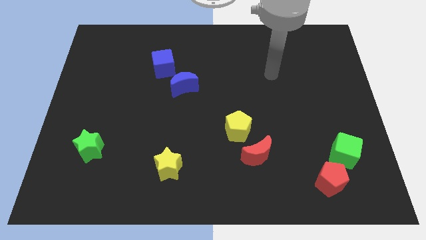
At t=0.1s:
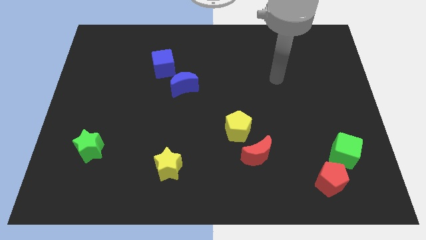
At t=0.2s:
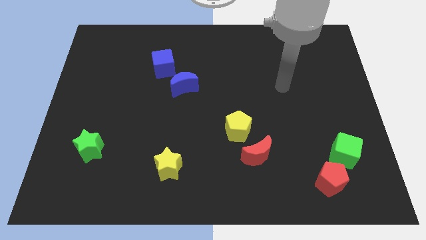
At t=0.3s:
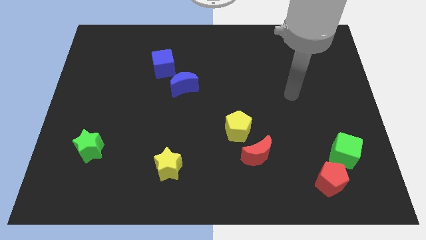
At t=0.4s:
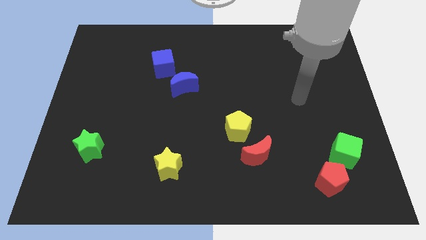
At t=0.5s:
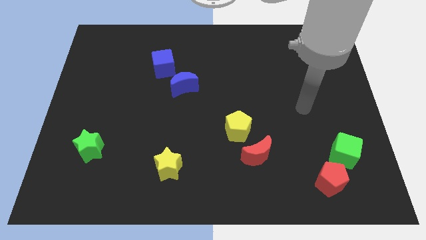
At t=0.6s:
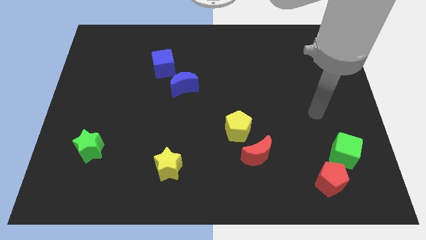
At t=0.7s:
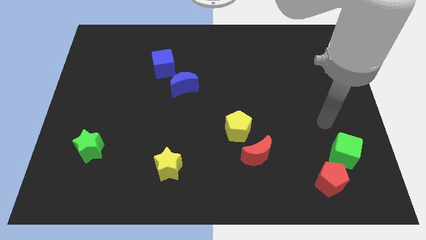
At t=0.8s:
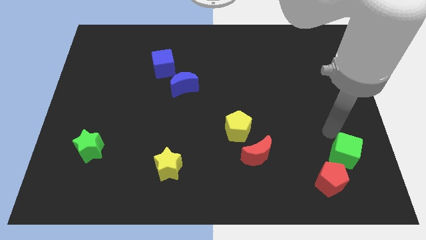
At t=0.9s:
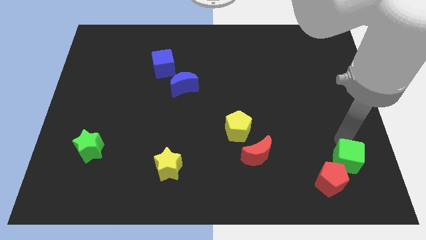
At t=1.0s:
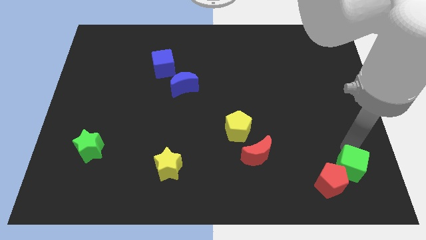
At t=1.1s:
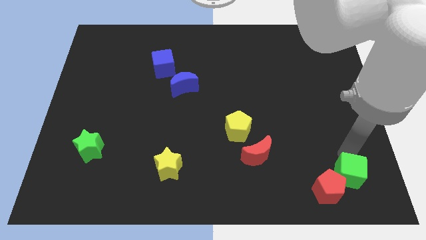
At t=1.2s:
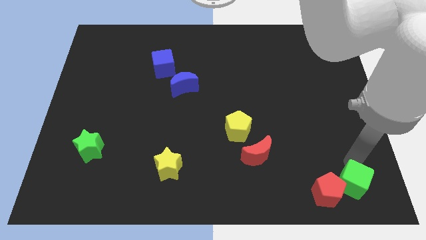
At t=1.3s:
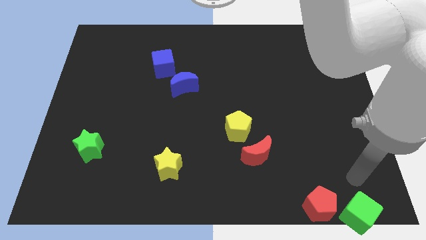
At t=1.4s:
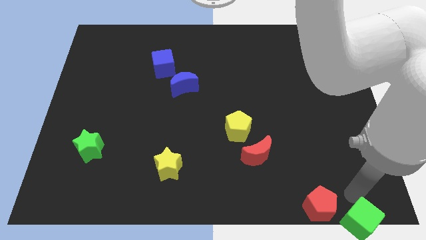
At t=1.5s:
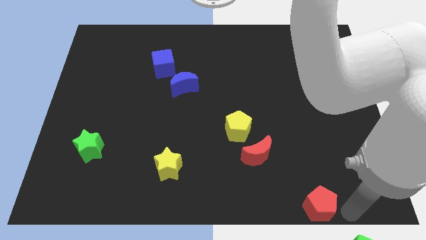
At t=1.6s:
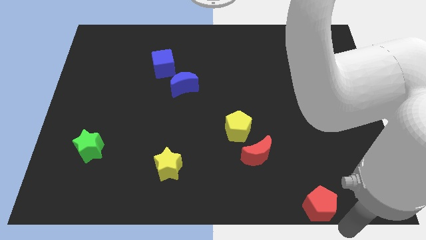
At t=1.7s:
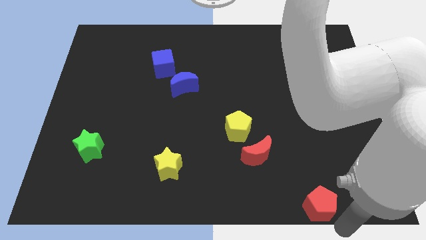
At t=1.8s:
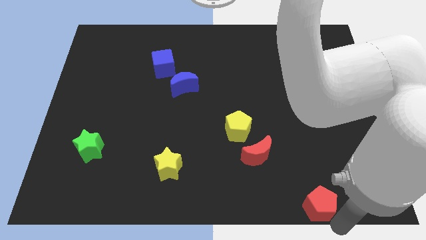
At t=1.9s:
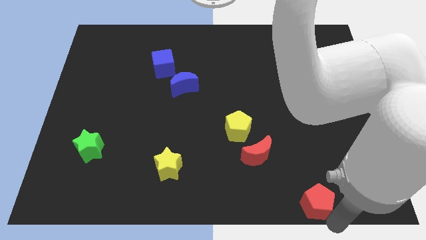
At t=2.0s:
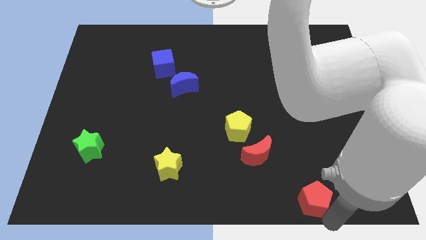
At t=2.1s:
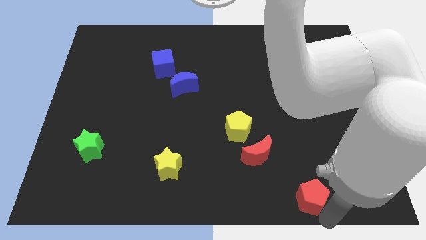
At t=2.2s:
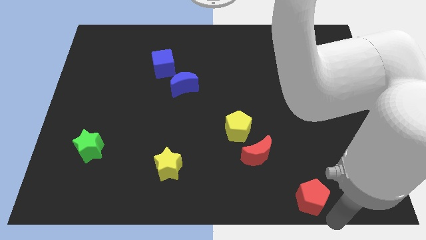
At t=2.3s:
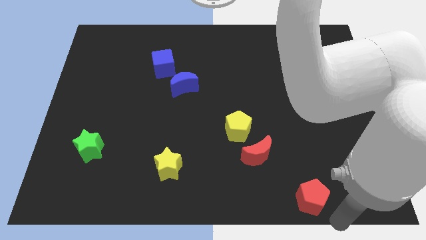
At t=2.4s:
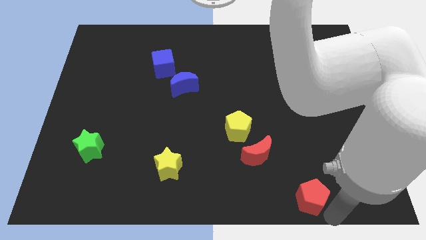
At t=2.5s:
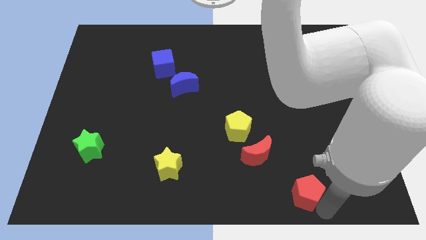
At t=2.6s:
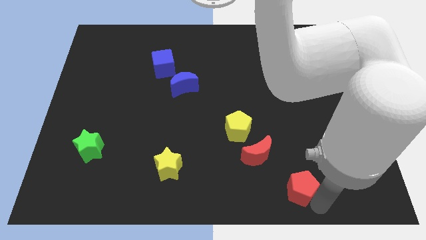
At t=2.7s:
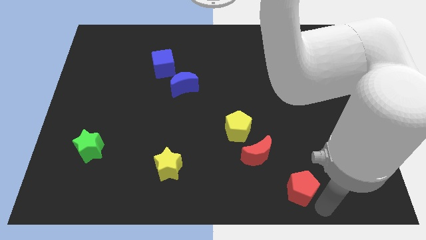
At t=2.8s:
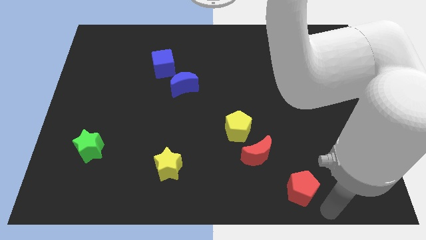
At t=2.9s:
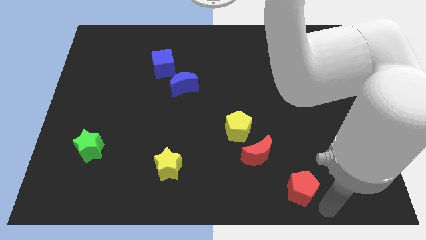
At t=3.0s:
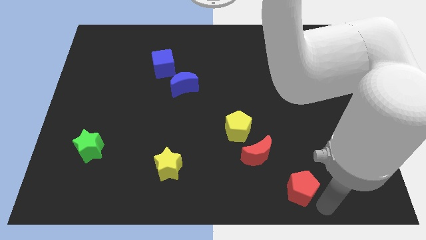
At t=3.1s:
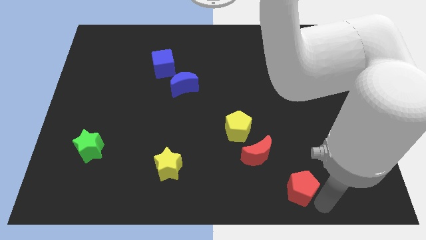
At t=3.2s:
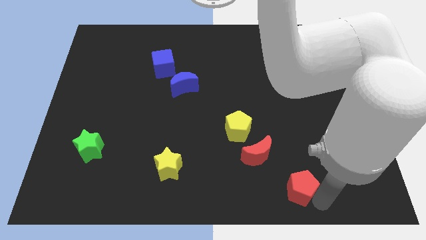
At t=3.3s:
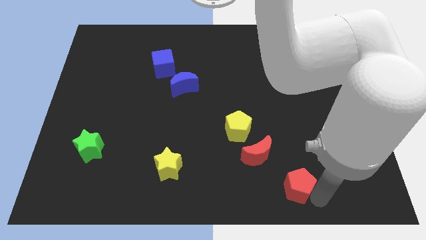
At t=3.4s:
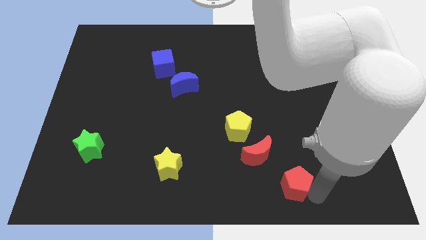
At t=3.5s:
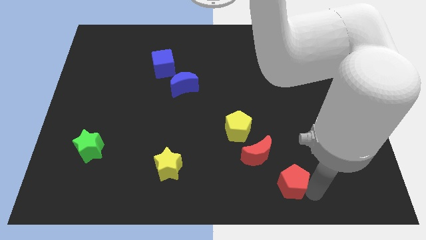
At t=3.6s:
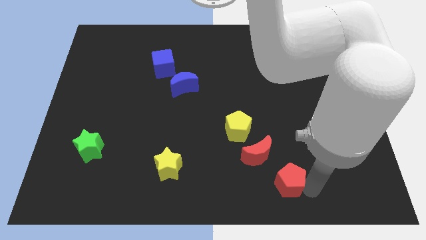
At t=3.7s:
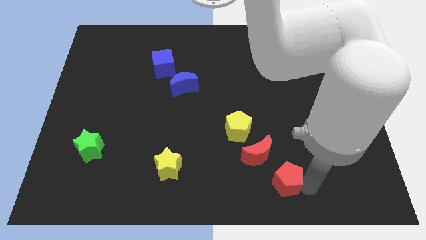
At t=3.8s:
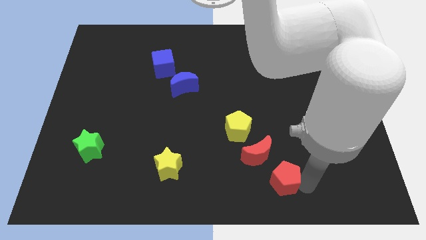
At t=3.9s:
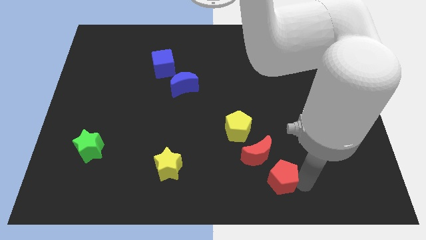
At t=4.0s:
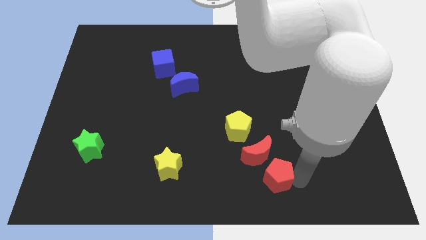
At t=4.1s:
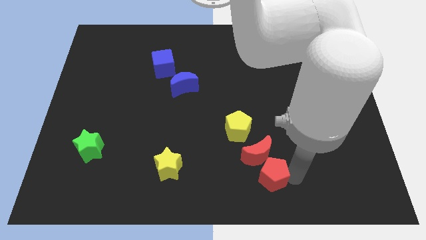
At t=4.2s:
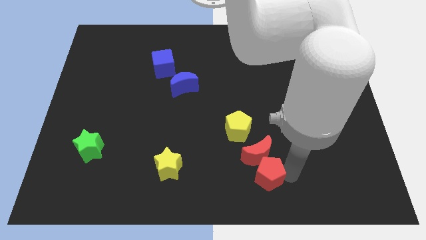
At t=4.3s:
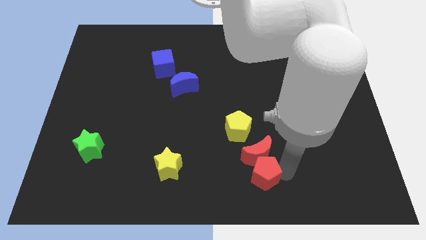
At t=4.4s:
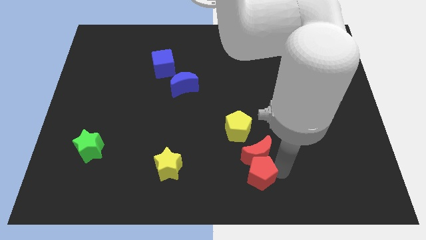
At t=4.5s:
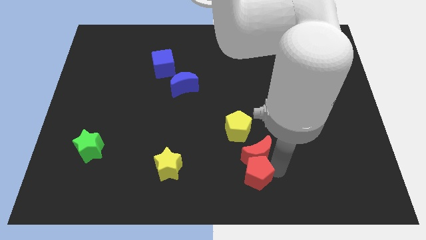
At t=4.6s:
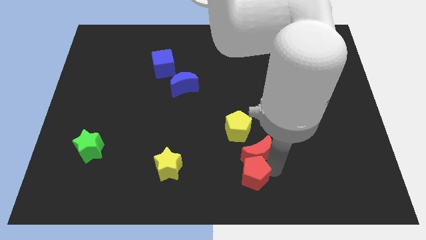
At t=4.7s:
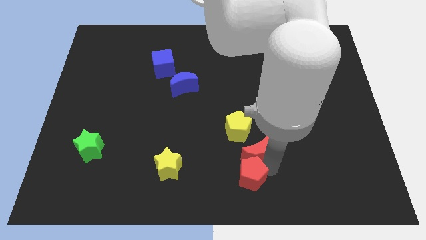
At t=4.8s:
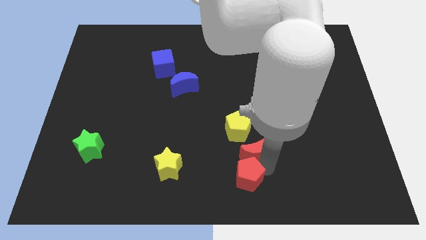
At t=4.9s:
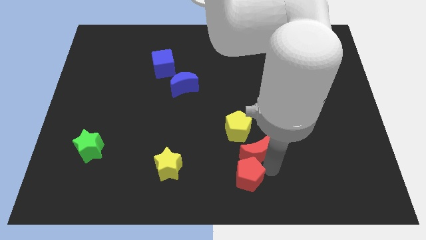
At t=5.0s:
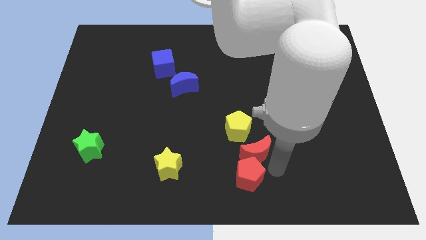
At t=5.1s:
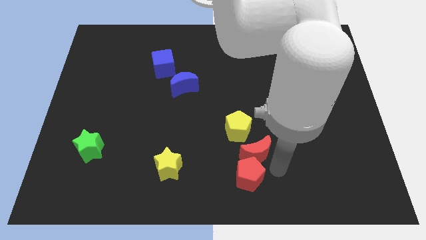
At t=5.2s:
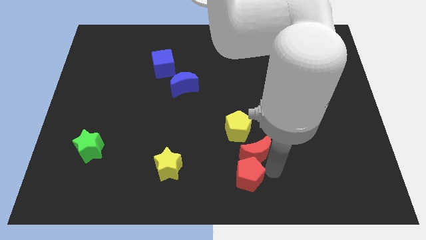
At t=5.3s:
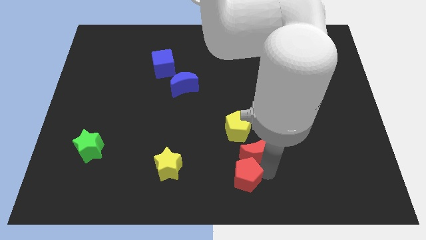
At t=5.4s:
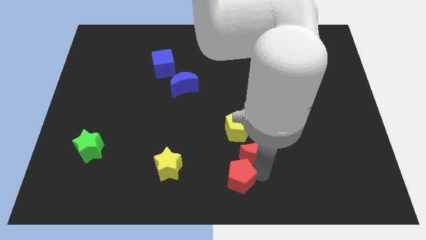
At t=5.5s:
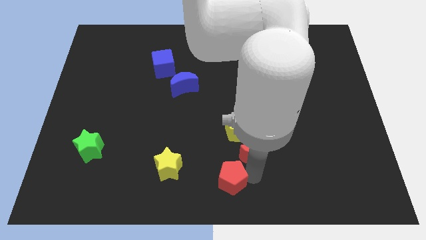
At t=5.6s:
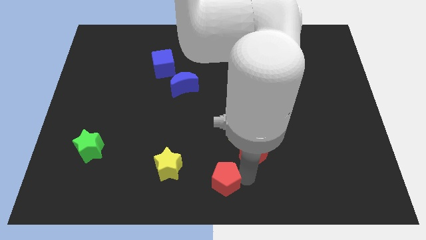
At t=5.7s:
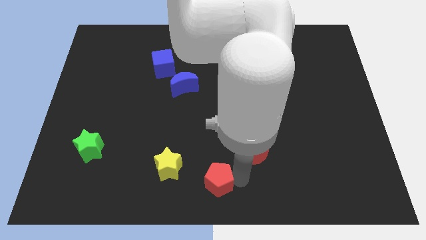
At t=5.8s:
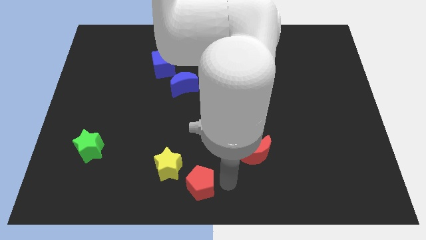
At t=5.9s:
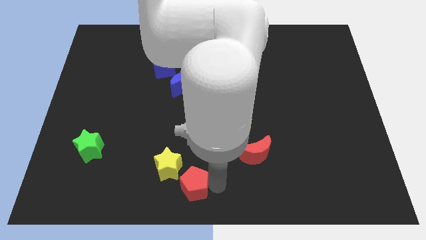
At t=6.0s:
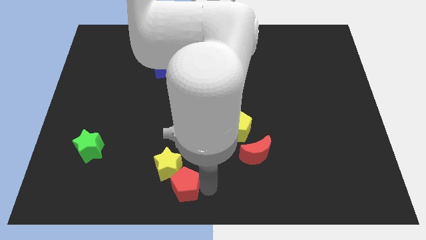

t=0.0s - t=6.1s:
put the red pentagon close to the yellow star

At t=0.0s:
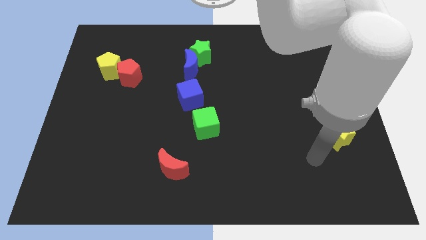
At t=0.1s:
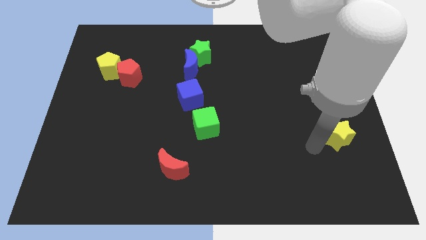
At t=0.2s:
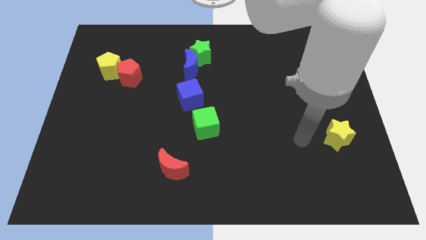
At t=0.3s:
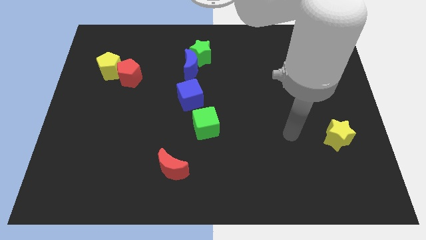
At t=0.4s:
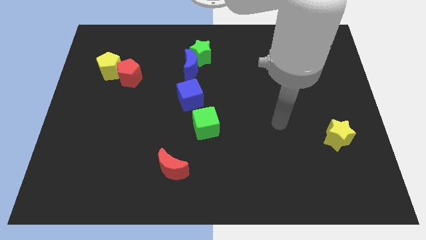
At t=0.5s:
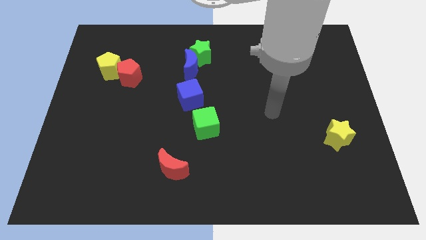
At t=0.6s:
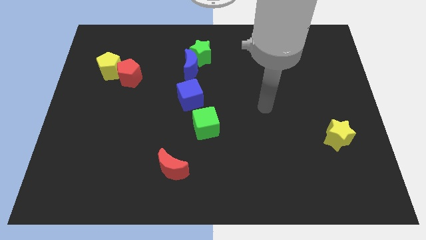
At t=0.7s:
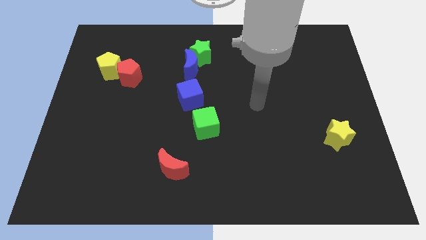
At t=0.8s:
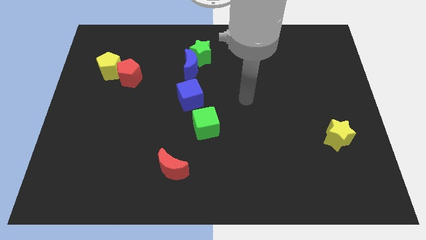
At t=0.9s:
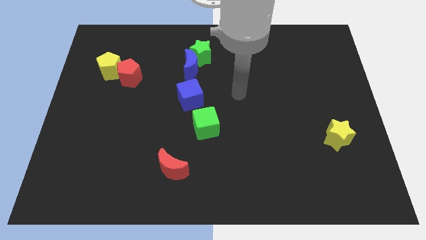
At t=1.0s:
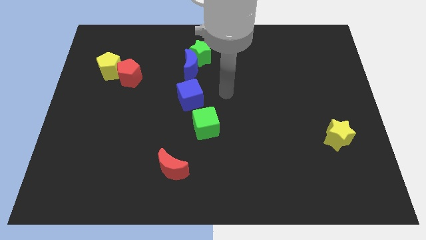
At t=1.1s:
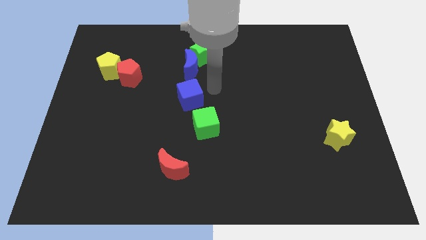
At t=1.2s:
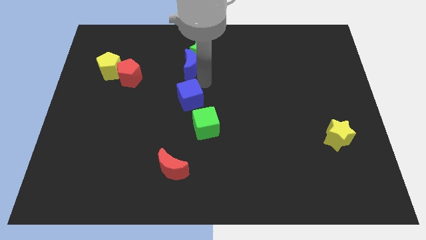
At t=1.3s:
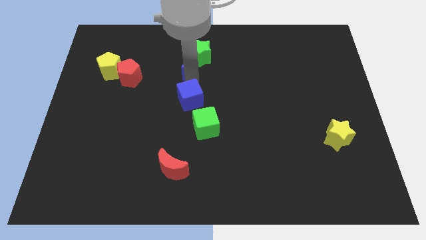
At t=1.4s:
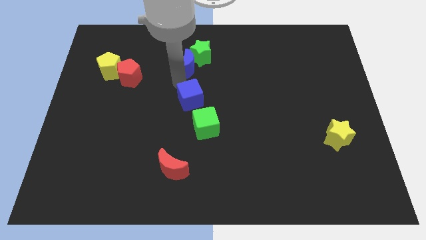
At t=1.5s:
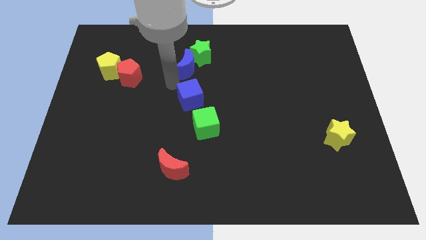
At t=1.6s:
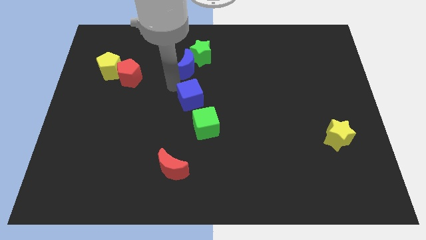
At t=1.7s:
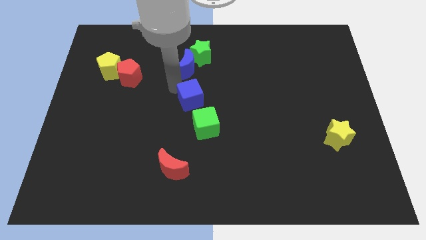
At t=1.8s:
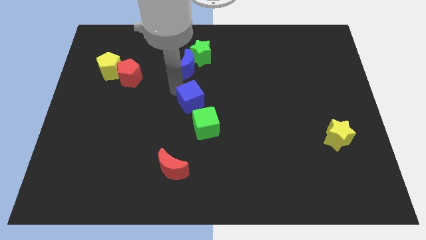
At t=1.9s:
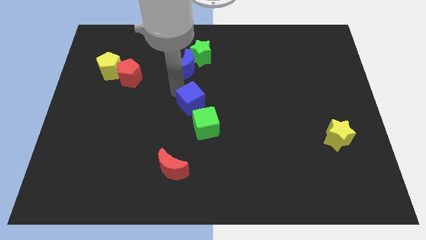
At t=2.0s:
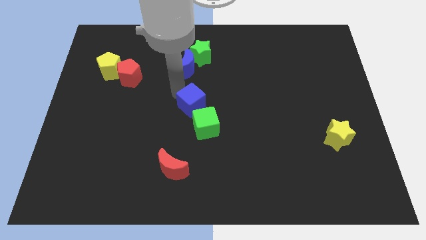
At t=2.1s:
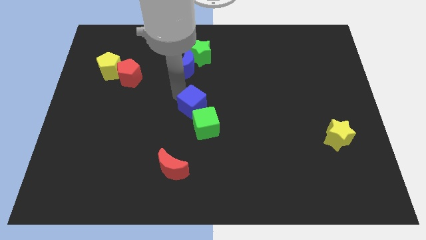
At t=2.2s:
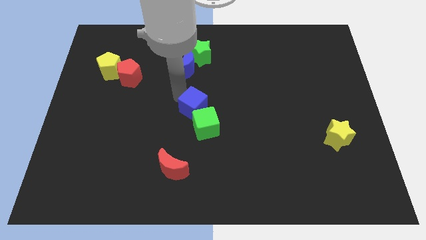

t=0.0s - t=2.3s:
push the blue cube next to the green cube
